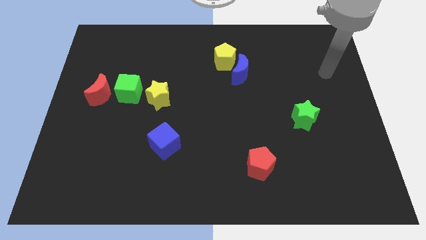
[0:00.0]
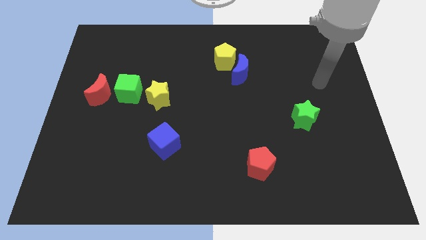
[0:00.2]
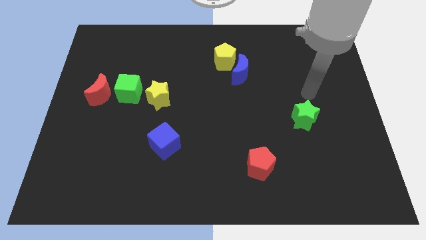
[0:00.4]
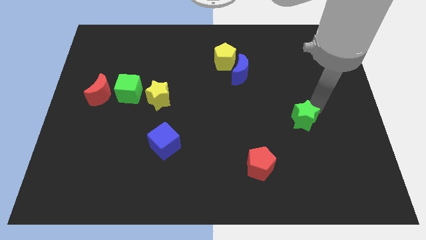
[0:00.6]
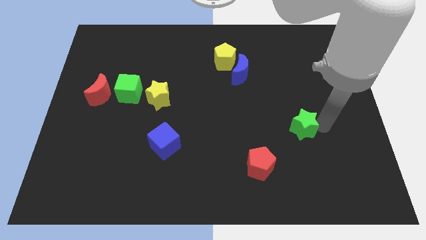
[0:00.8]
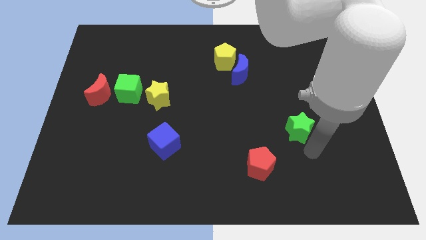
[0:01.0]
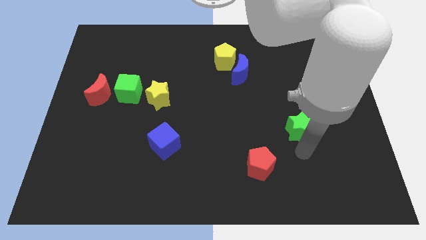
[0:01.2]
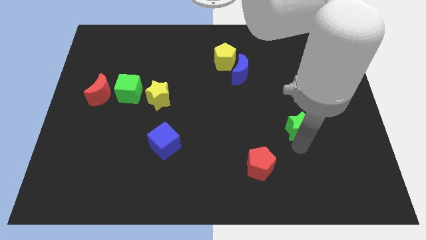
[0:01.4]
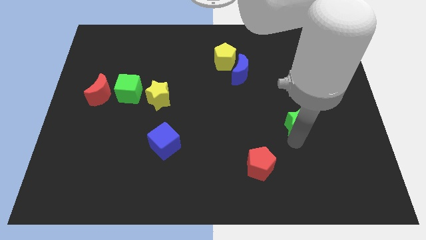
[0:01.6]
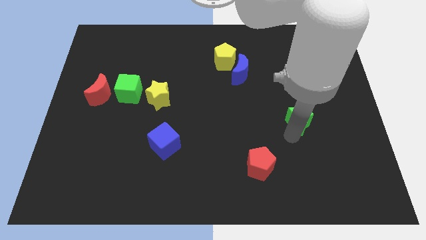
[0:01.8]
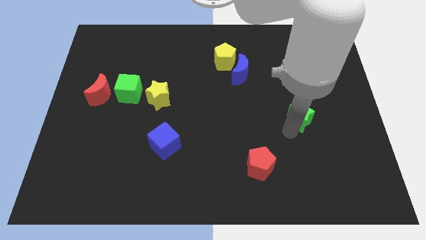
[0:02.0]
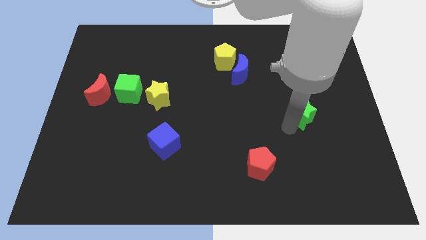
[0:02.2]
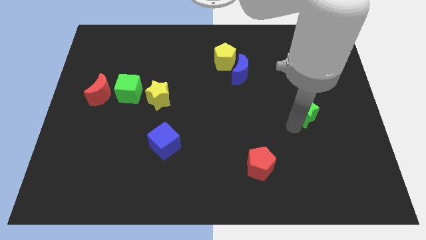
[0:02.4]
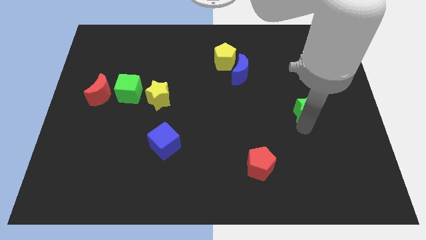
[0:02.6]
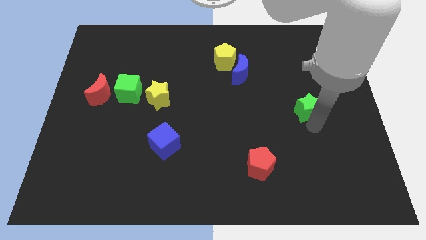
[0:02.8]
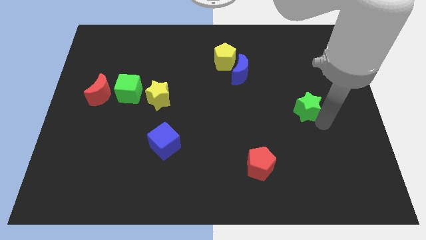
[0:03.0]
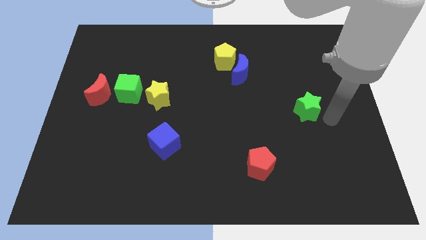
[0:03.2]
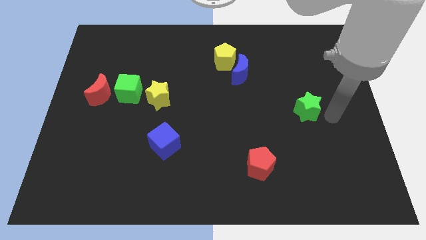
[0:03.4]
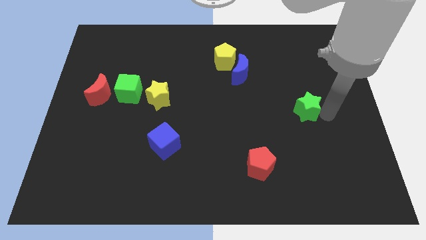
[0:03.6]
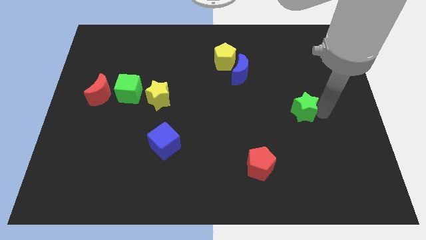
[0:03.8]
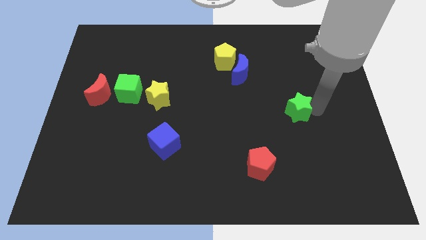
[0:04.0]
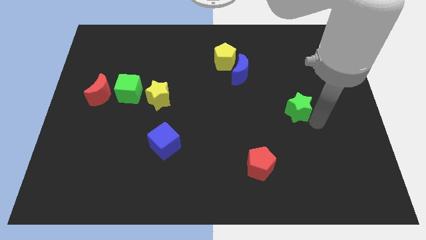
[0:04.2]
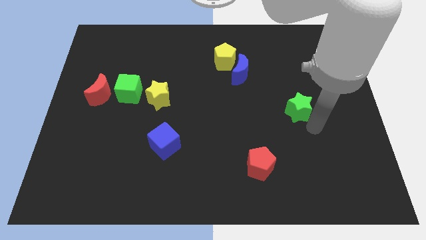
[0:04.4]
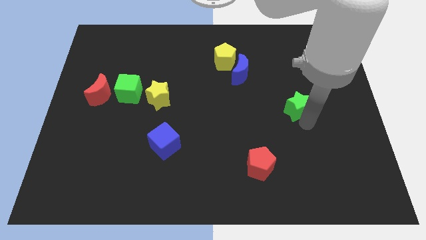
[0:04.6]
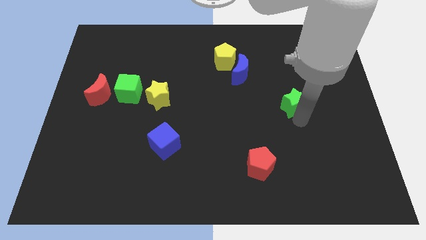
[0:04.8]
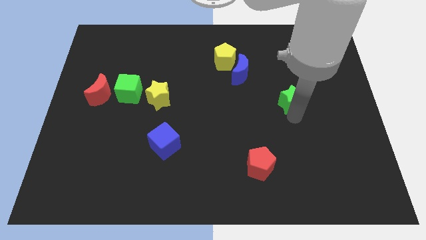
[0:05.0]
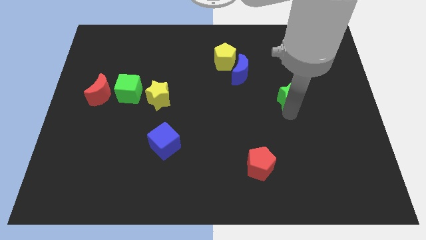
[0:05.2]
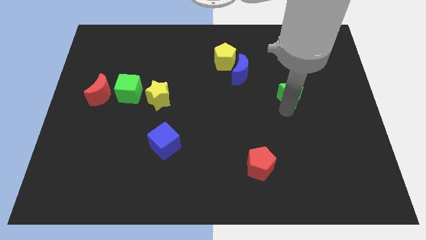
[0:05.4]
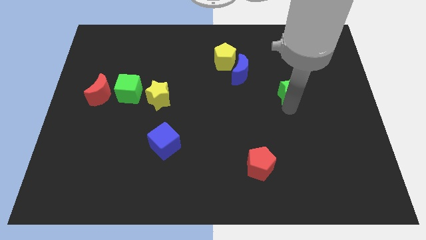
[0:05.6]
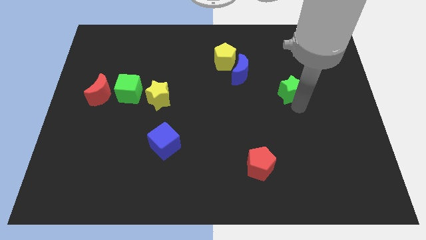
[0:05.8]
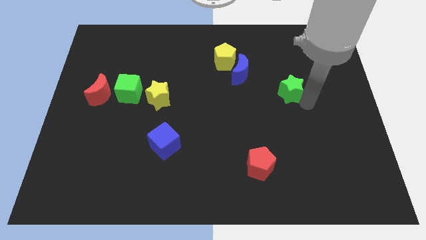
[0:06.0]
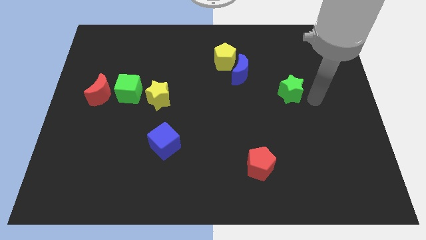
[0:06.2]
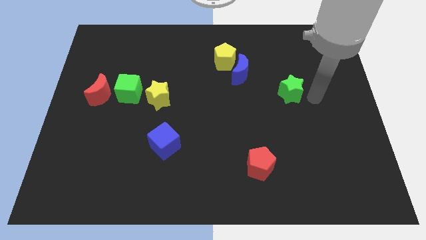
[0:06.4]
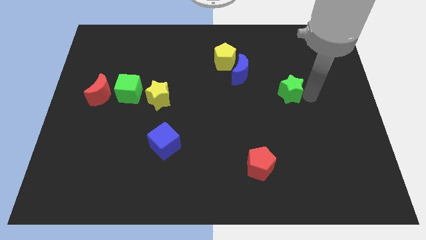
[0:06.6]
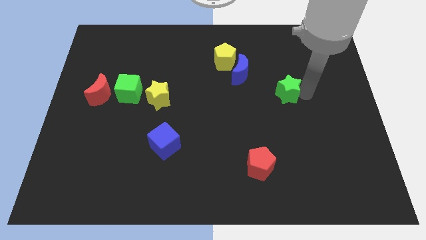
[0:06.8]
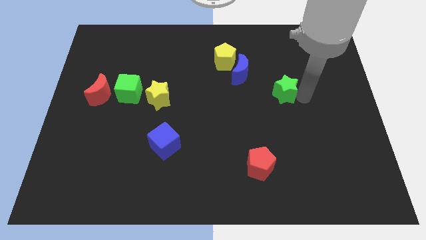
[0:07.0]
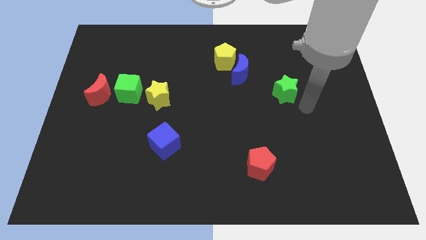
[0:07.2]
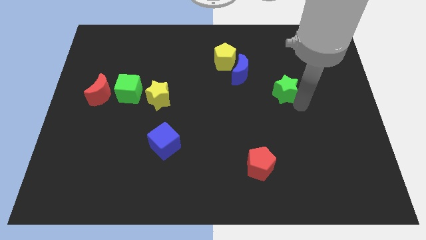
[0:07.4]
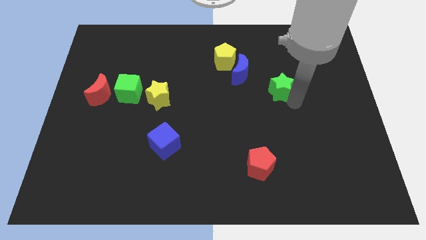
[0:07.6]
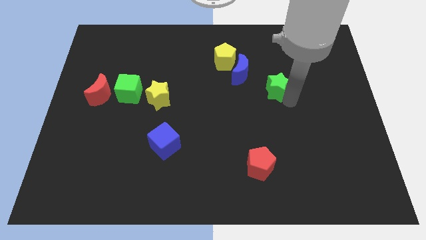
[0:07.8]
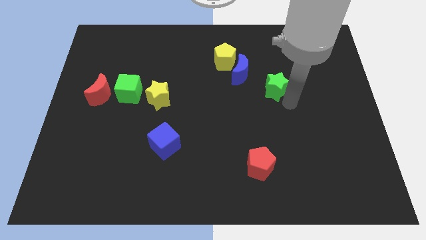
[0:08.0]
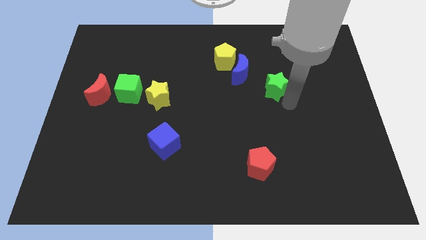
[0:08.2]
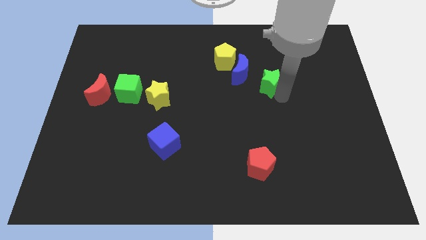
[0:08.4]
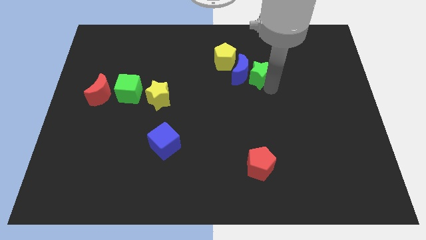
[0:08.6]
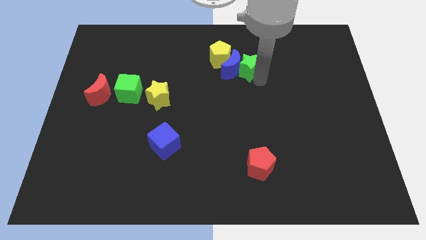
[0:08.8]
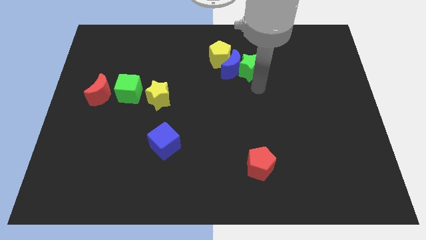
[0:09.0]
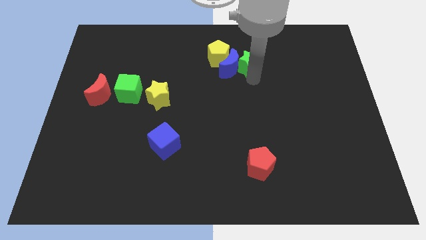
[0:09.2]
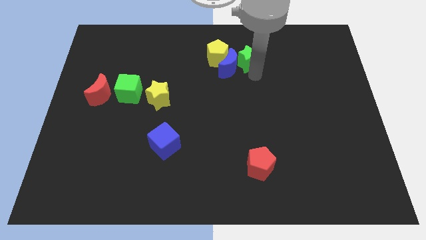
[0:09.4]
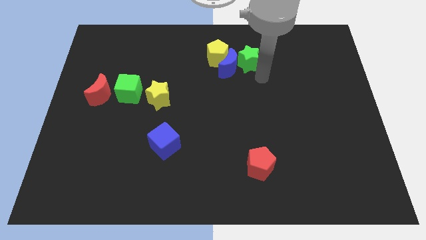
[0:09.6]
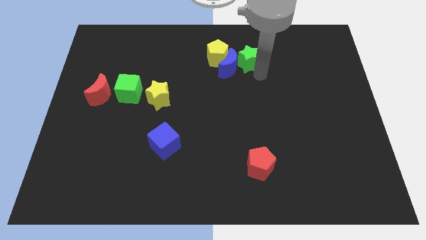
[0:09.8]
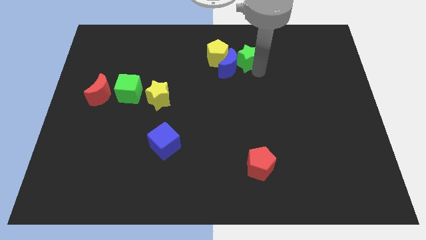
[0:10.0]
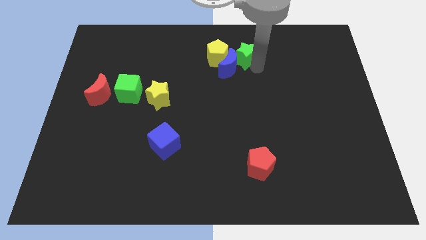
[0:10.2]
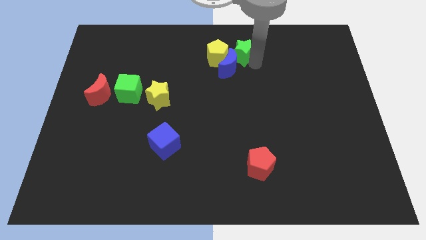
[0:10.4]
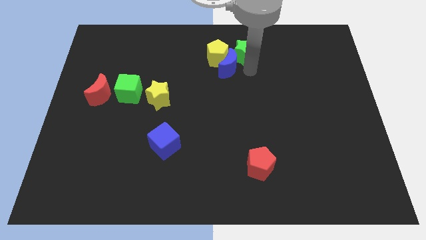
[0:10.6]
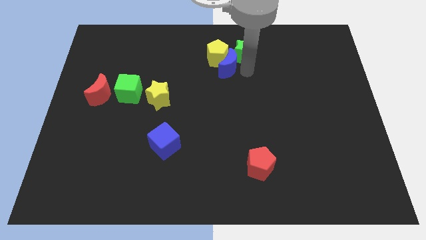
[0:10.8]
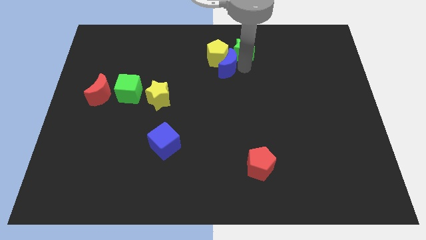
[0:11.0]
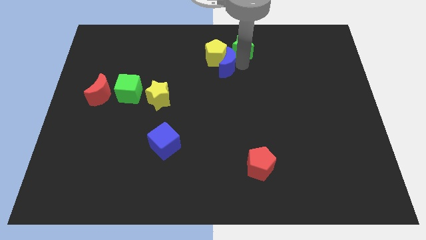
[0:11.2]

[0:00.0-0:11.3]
move the green star to the top side
